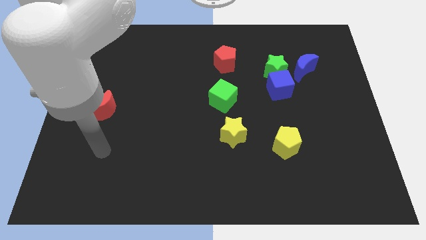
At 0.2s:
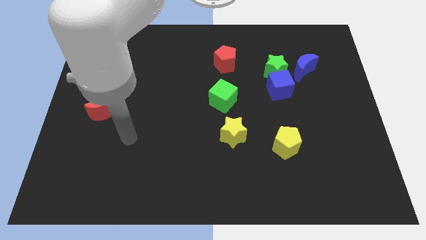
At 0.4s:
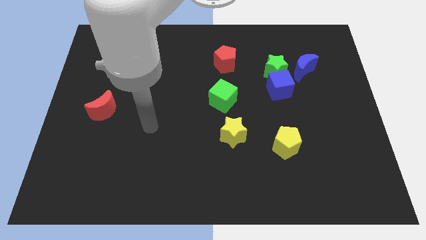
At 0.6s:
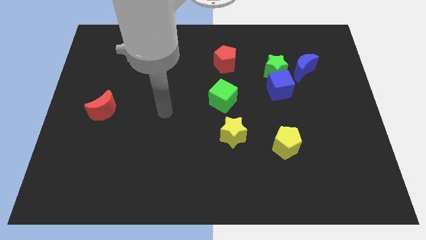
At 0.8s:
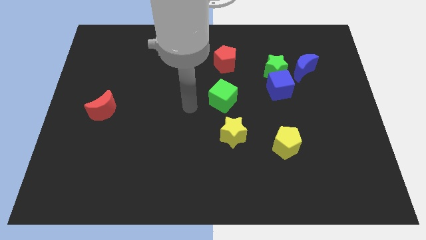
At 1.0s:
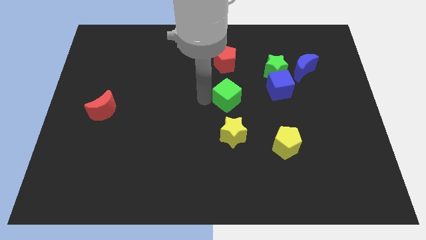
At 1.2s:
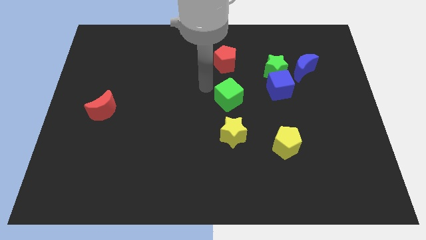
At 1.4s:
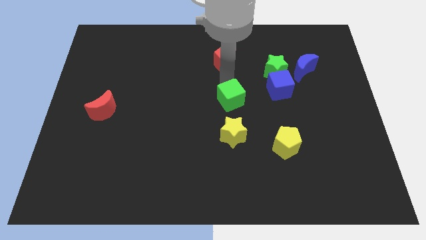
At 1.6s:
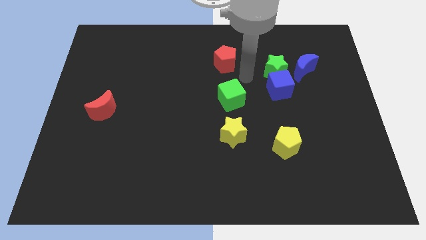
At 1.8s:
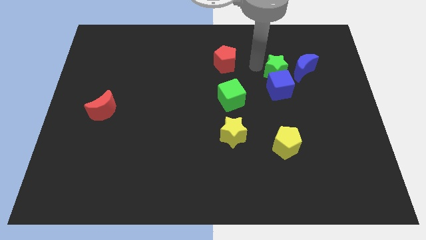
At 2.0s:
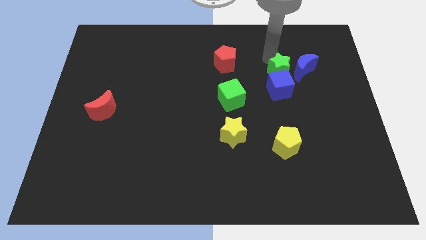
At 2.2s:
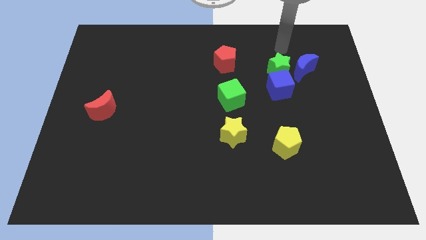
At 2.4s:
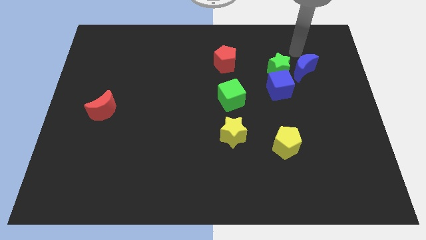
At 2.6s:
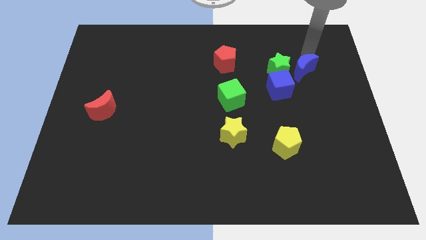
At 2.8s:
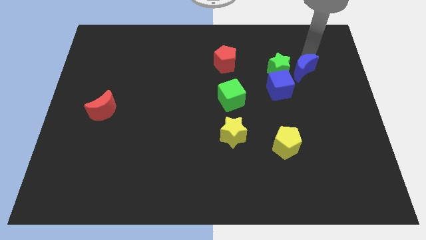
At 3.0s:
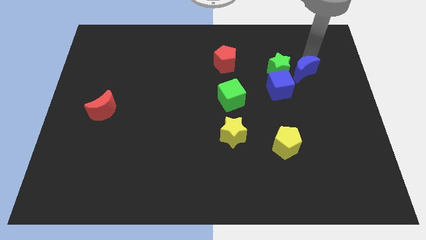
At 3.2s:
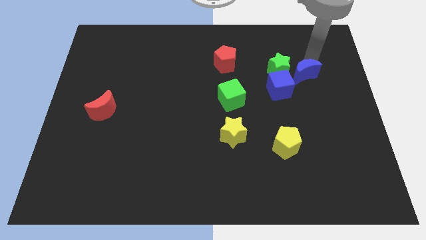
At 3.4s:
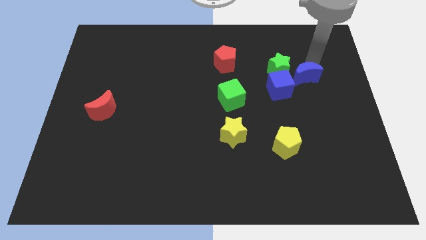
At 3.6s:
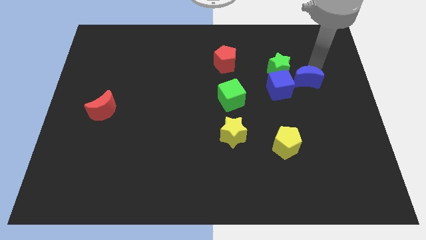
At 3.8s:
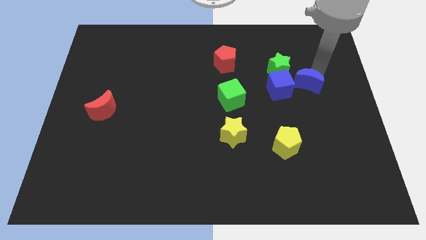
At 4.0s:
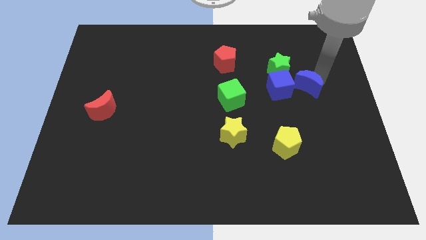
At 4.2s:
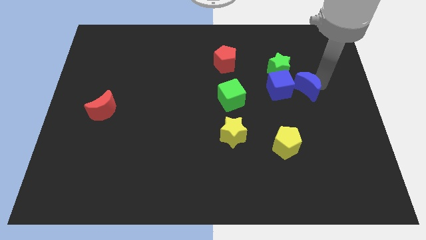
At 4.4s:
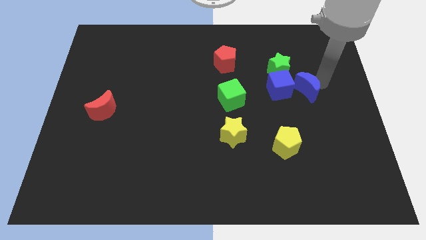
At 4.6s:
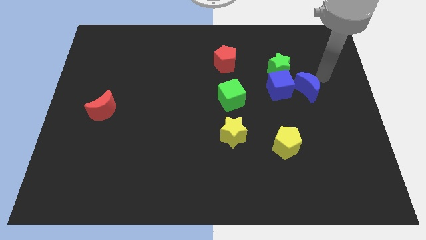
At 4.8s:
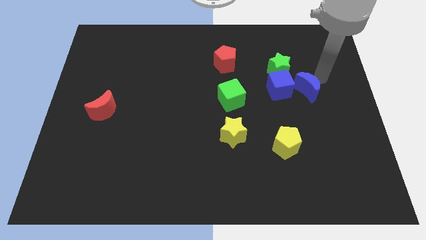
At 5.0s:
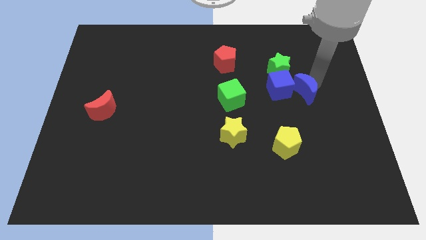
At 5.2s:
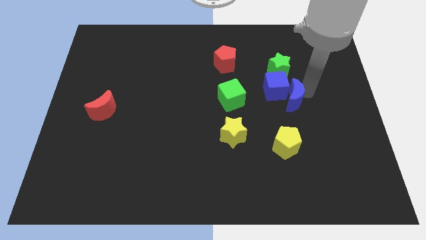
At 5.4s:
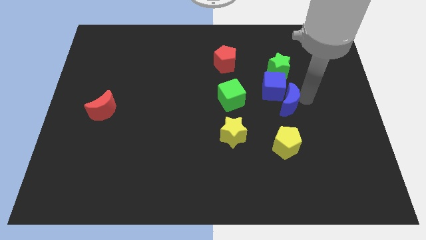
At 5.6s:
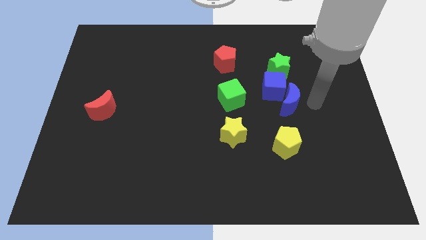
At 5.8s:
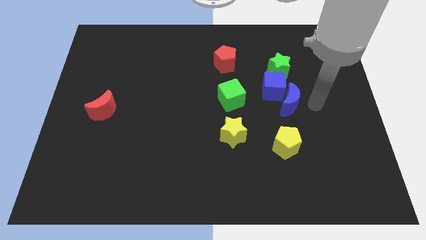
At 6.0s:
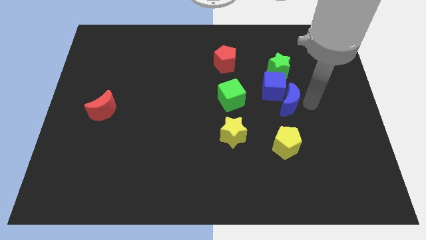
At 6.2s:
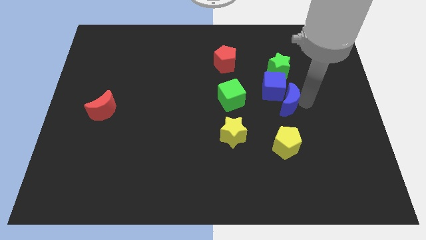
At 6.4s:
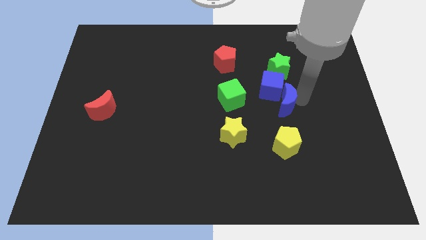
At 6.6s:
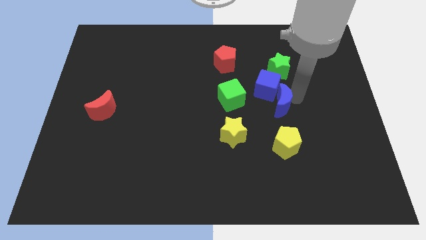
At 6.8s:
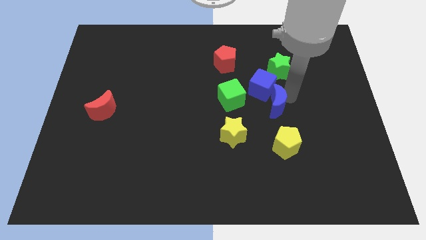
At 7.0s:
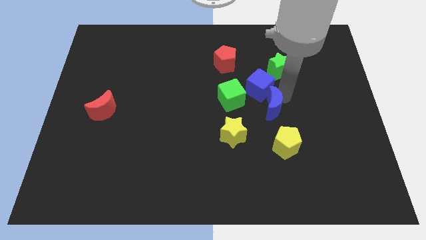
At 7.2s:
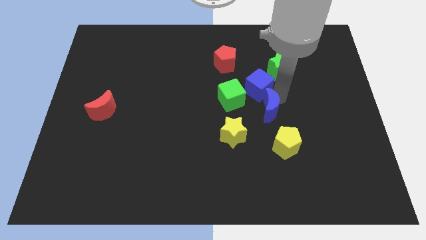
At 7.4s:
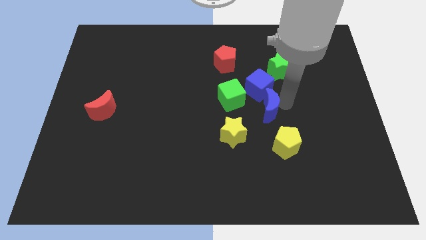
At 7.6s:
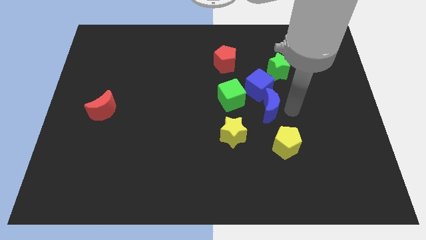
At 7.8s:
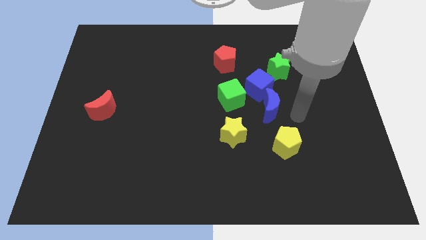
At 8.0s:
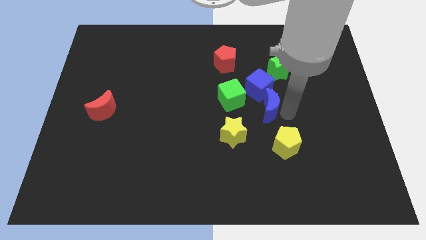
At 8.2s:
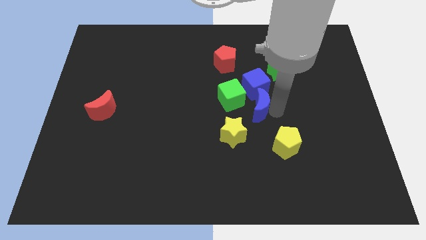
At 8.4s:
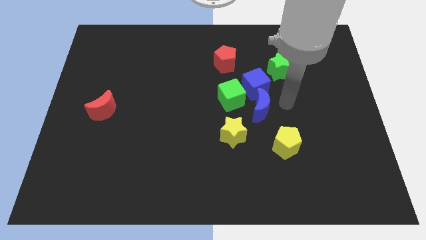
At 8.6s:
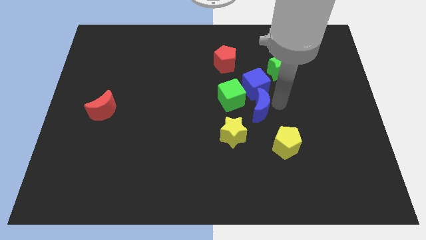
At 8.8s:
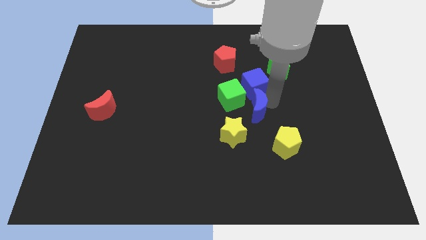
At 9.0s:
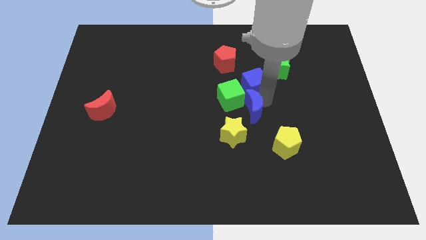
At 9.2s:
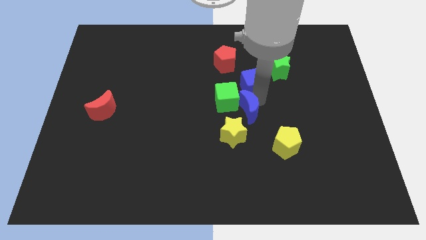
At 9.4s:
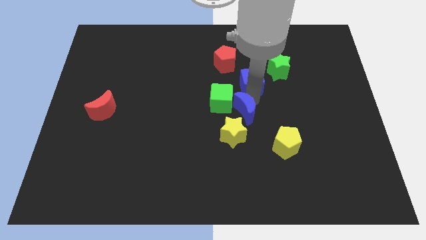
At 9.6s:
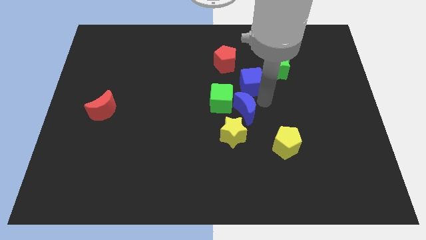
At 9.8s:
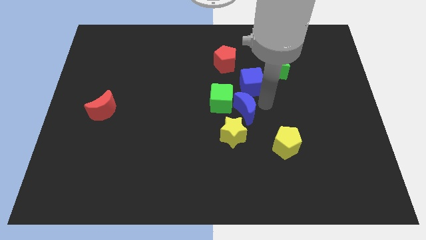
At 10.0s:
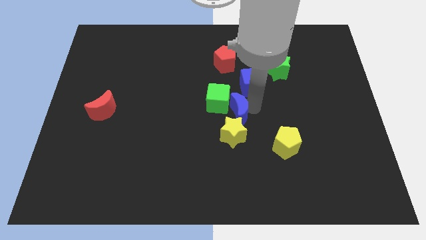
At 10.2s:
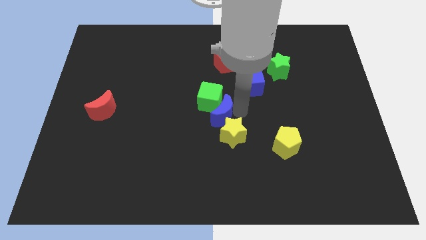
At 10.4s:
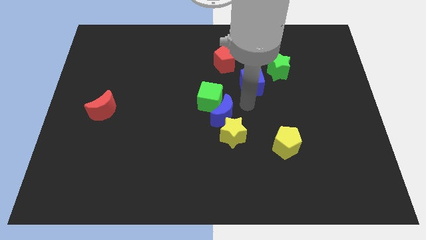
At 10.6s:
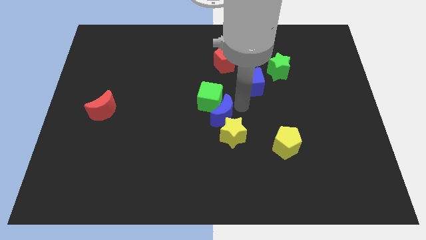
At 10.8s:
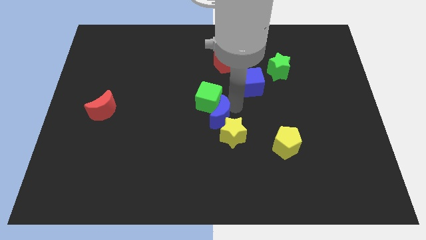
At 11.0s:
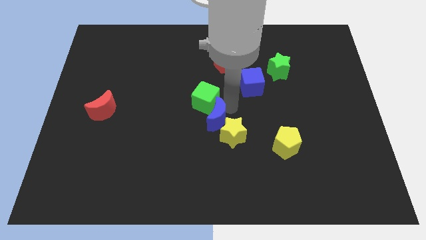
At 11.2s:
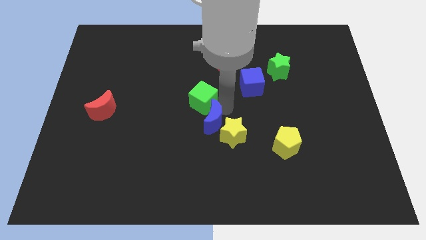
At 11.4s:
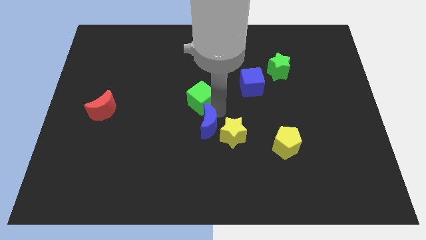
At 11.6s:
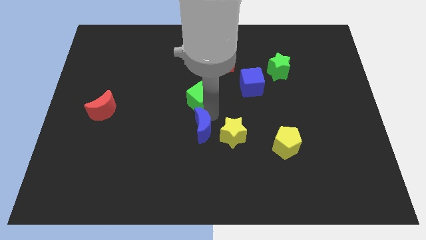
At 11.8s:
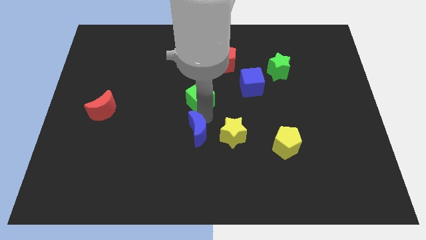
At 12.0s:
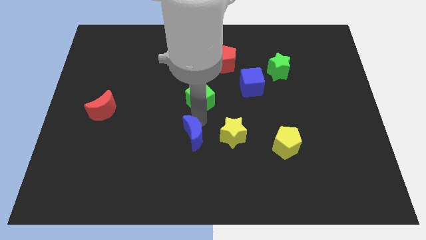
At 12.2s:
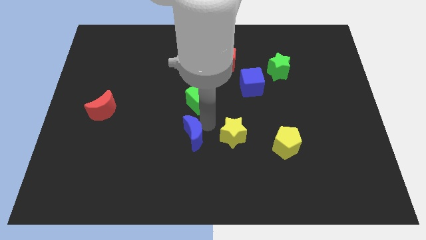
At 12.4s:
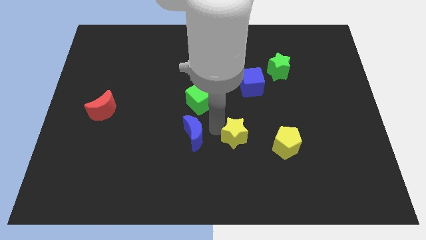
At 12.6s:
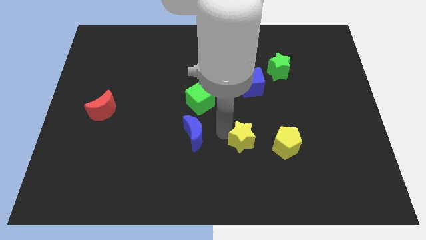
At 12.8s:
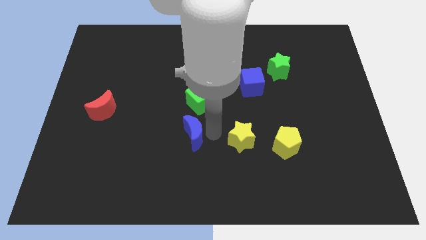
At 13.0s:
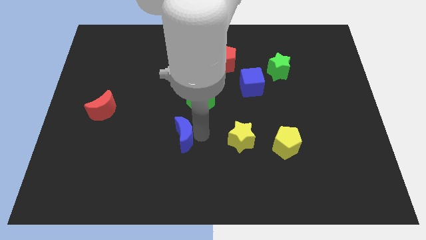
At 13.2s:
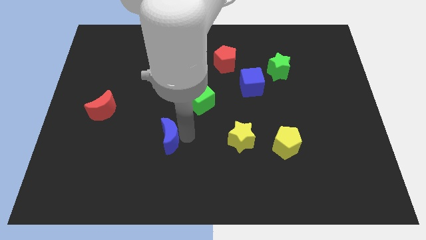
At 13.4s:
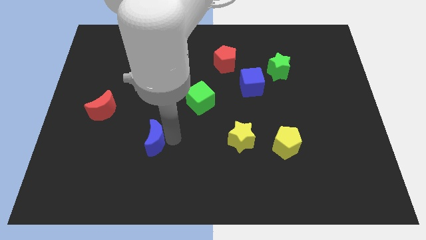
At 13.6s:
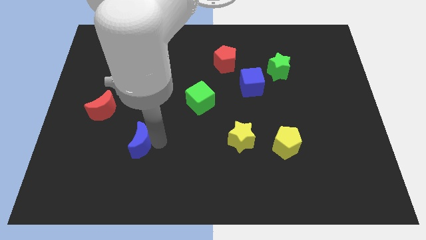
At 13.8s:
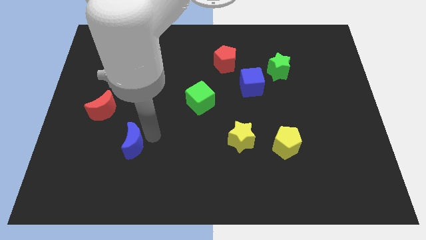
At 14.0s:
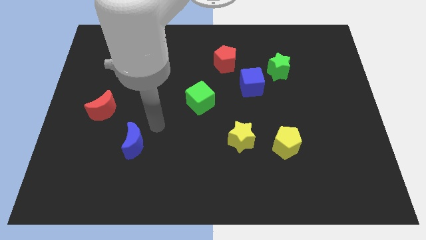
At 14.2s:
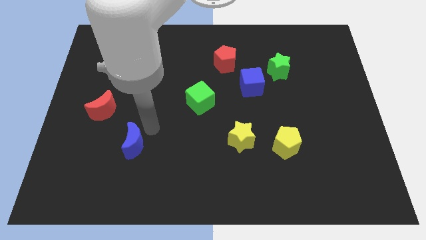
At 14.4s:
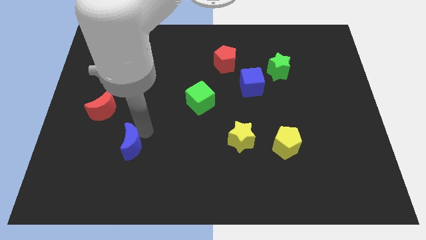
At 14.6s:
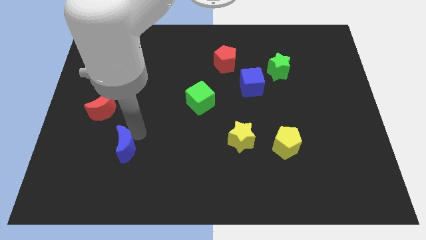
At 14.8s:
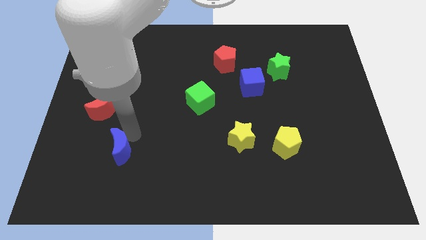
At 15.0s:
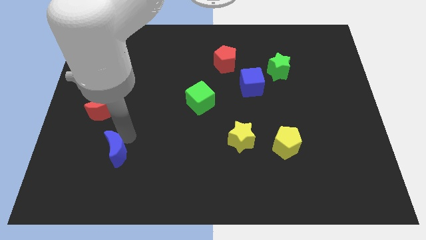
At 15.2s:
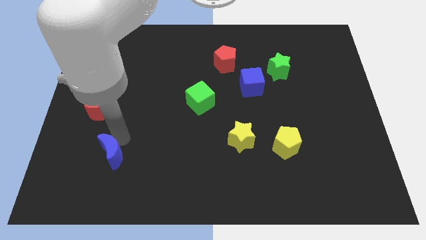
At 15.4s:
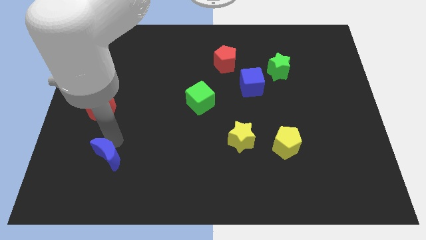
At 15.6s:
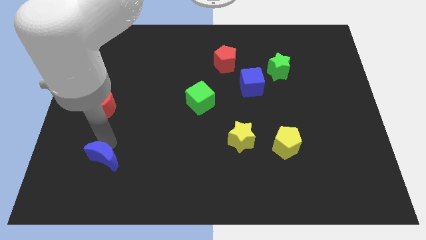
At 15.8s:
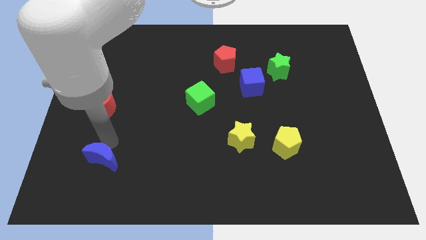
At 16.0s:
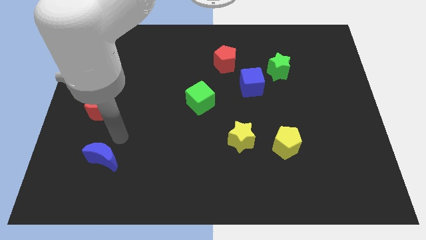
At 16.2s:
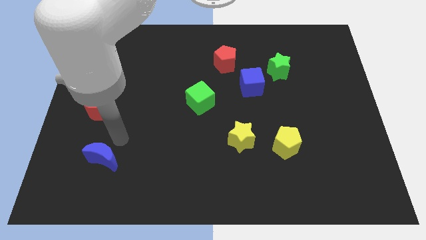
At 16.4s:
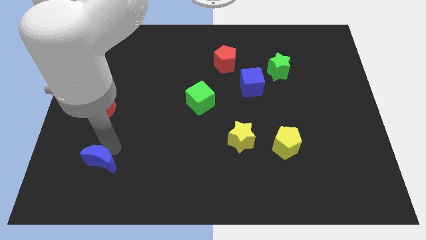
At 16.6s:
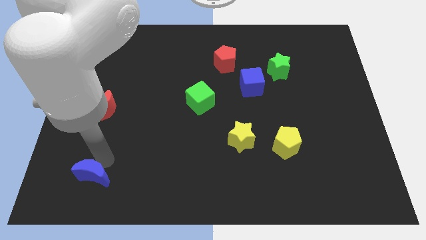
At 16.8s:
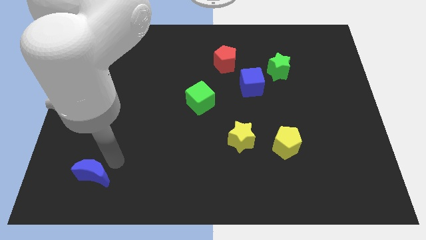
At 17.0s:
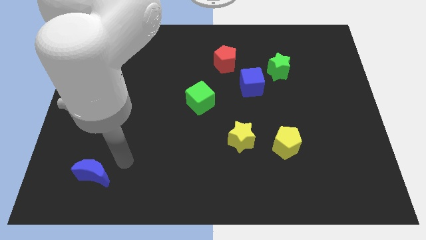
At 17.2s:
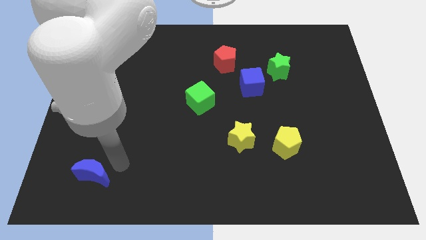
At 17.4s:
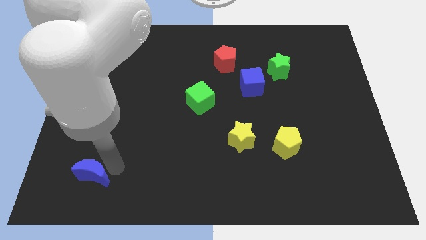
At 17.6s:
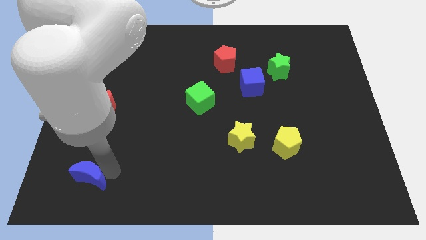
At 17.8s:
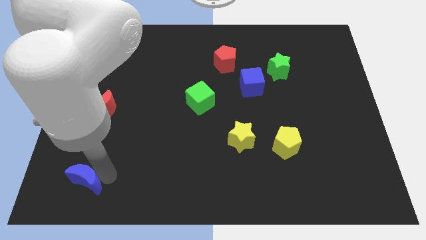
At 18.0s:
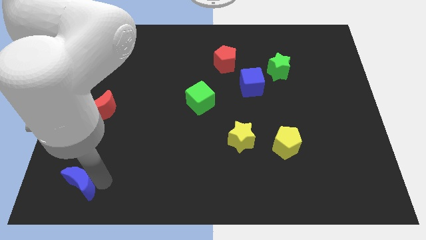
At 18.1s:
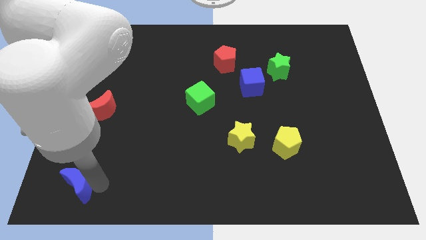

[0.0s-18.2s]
push the blue moon to the bottom left
